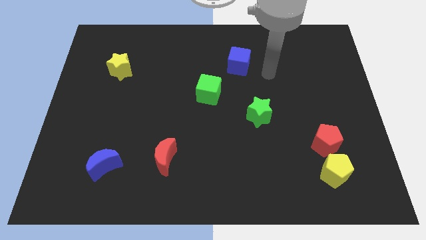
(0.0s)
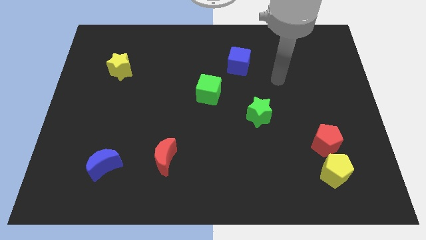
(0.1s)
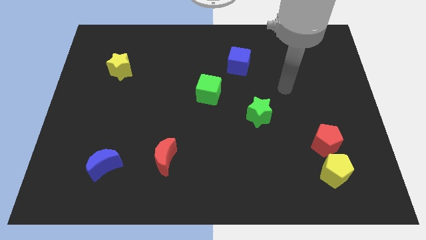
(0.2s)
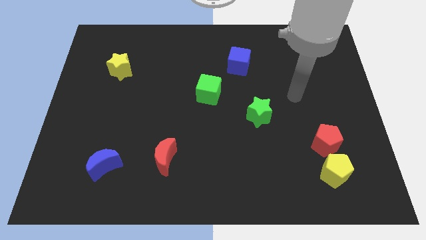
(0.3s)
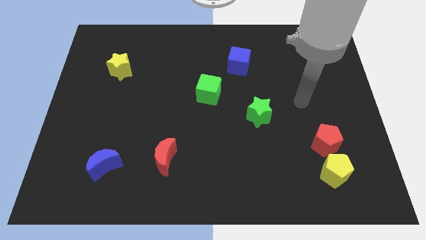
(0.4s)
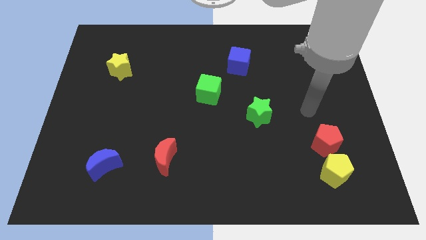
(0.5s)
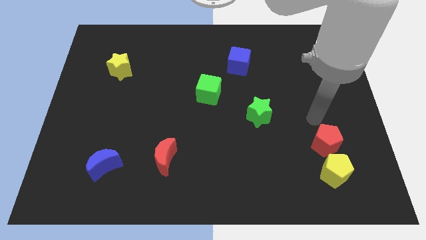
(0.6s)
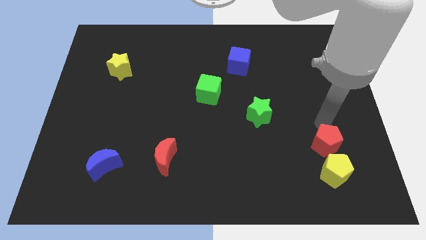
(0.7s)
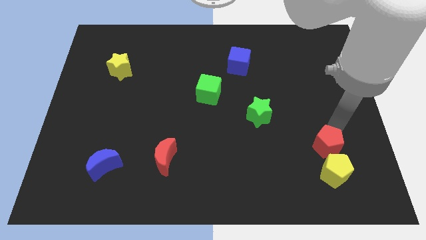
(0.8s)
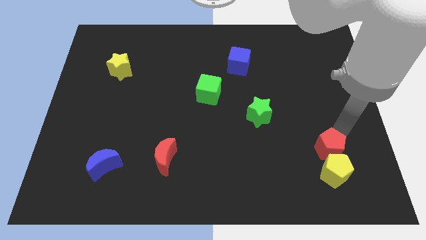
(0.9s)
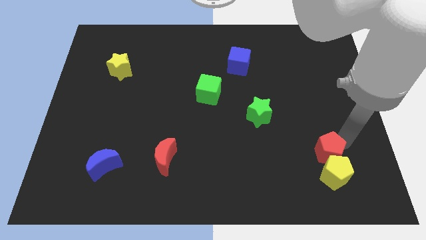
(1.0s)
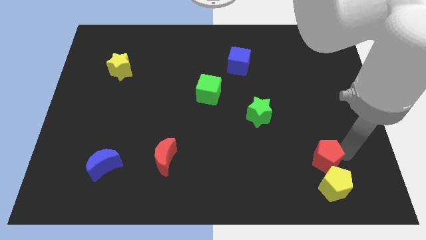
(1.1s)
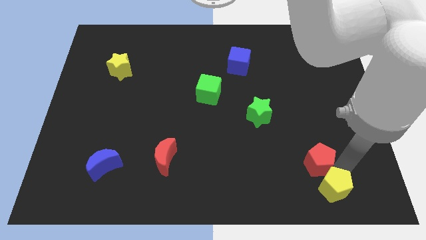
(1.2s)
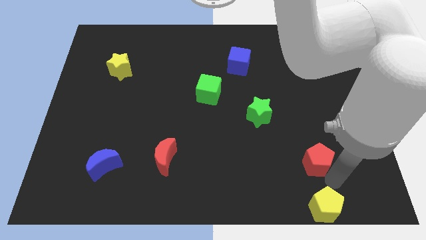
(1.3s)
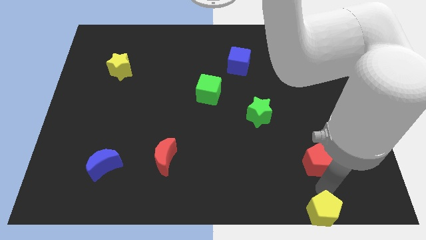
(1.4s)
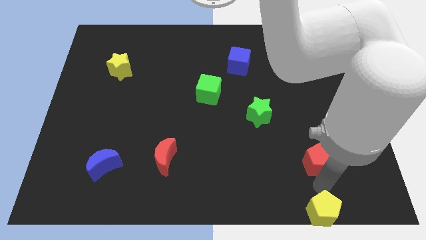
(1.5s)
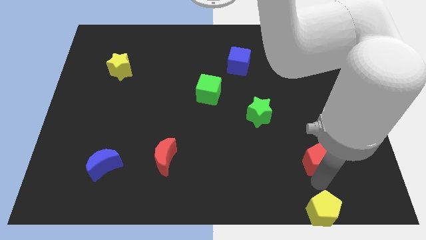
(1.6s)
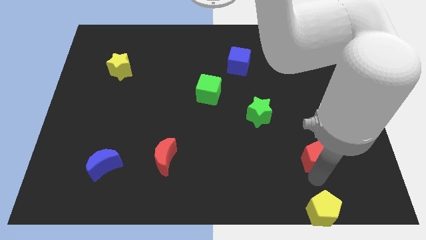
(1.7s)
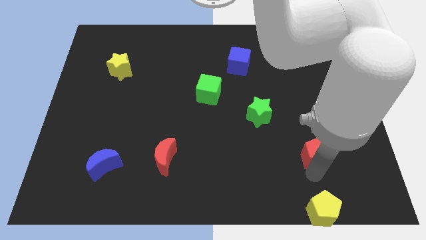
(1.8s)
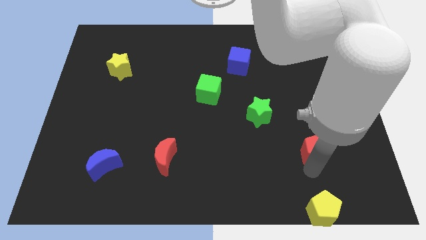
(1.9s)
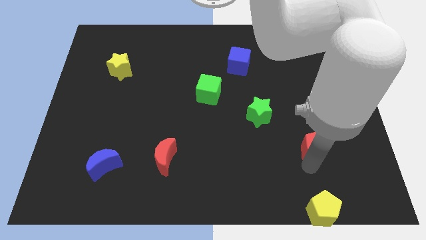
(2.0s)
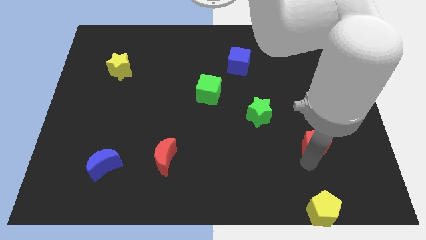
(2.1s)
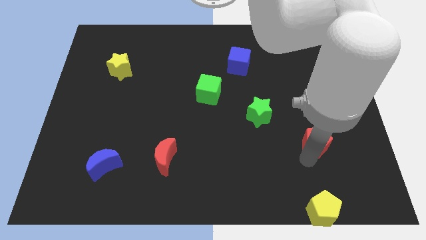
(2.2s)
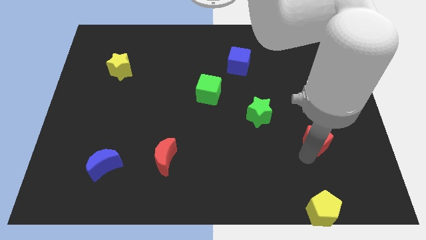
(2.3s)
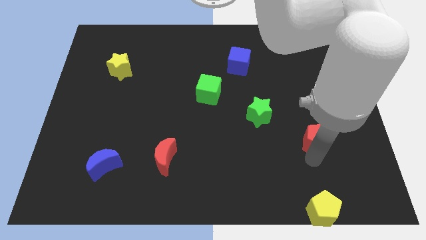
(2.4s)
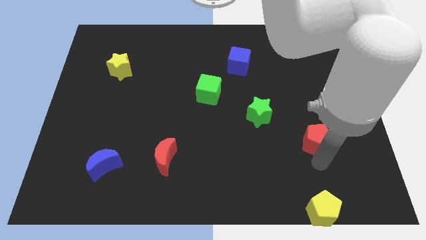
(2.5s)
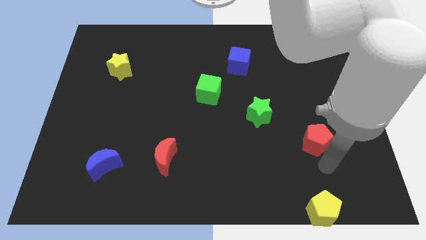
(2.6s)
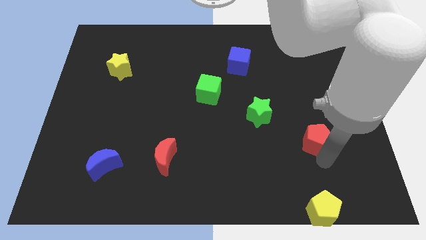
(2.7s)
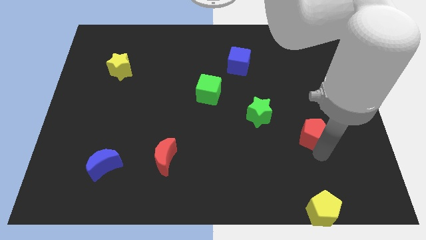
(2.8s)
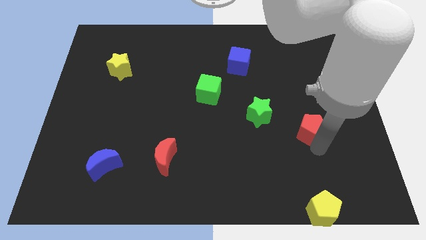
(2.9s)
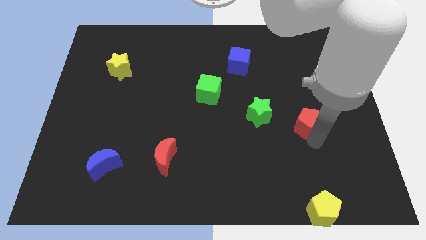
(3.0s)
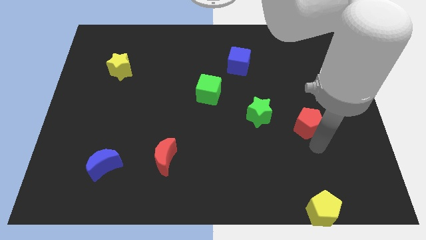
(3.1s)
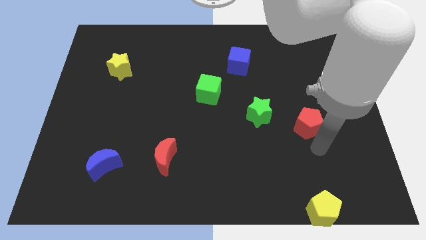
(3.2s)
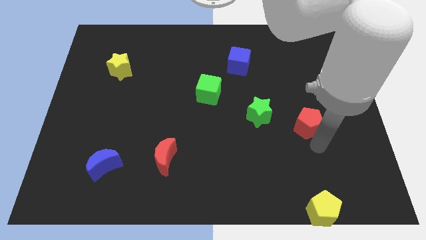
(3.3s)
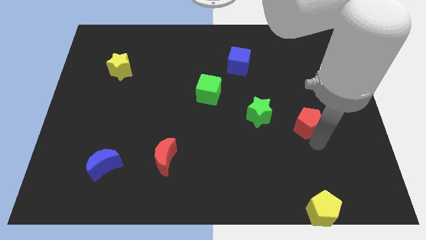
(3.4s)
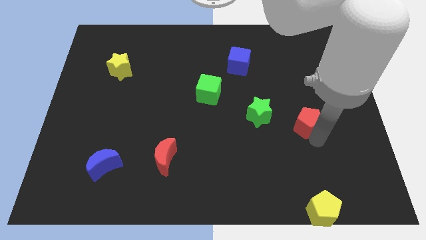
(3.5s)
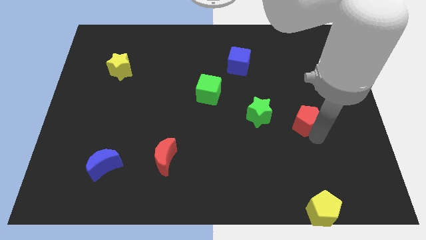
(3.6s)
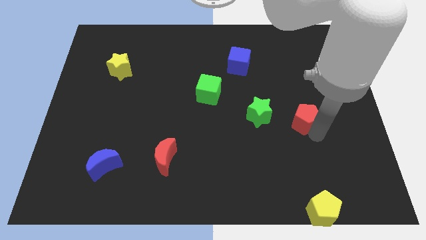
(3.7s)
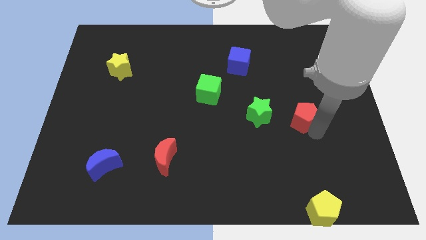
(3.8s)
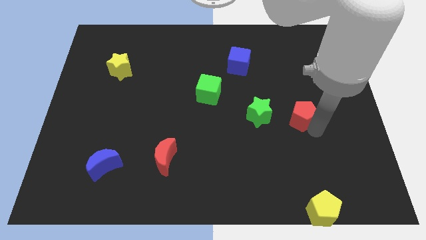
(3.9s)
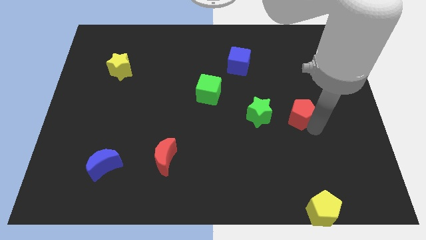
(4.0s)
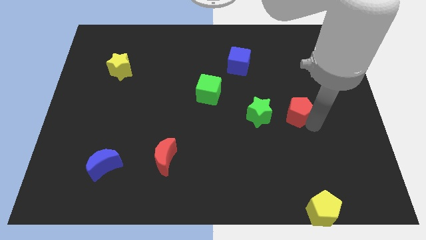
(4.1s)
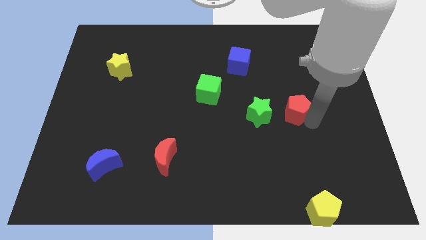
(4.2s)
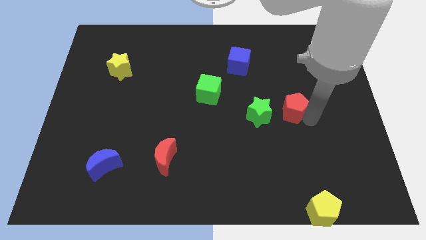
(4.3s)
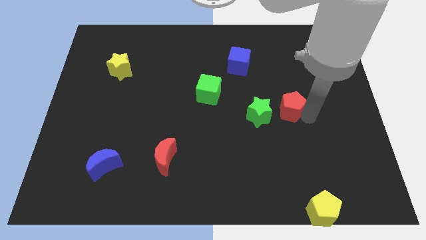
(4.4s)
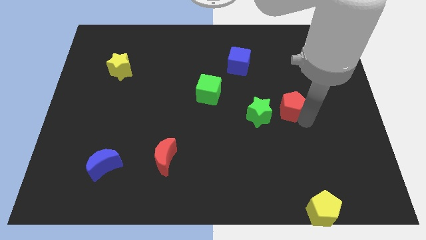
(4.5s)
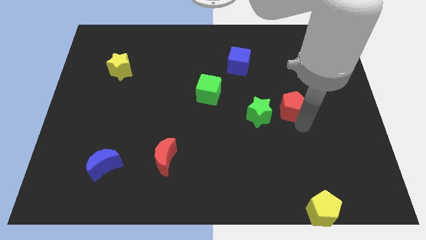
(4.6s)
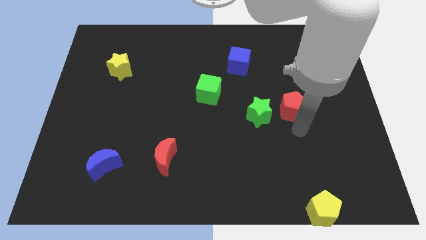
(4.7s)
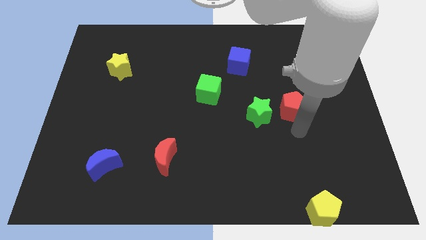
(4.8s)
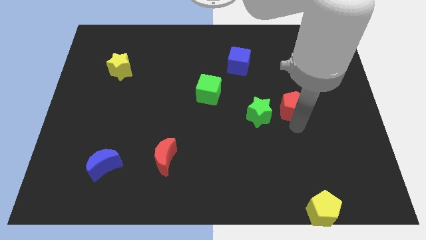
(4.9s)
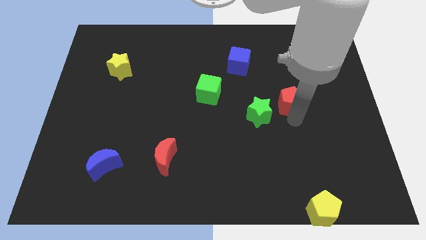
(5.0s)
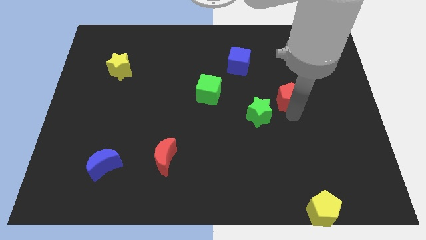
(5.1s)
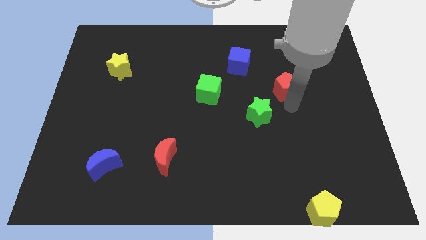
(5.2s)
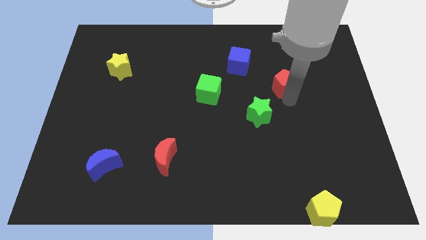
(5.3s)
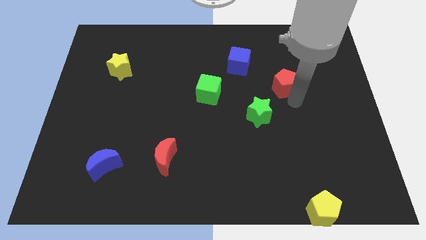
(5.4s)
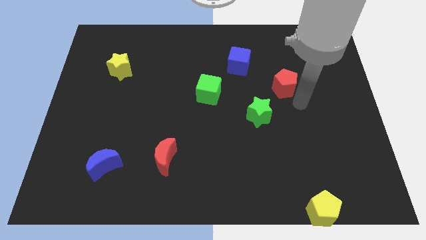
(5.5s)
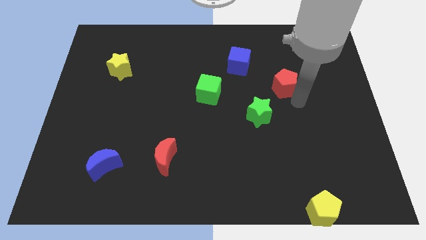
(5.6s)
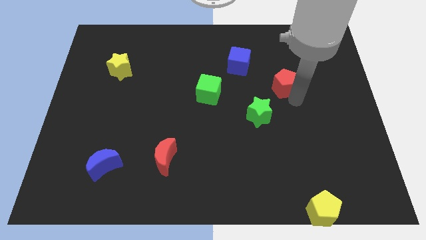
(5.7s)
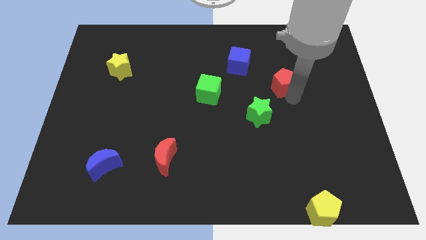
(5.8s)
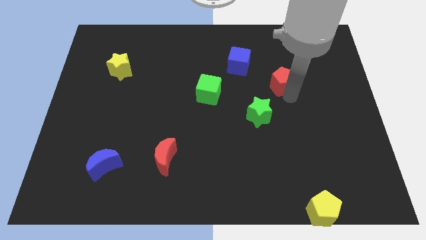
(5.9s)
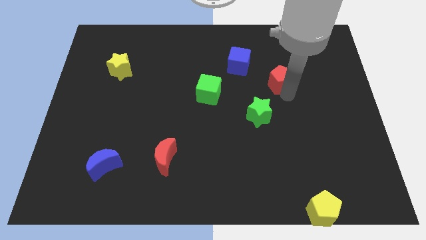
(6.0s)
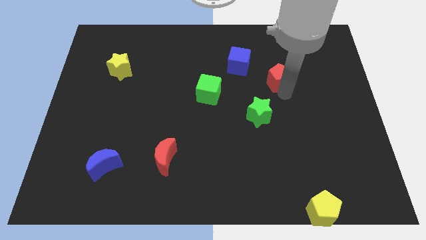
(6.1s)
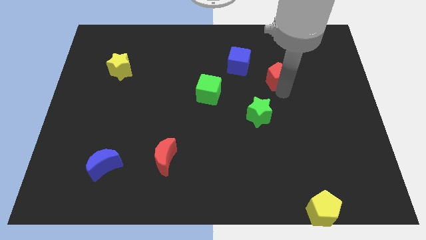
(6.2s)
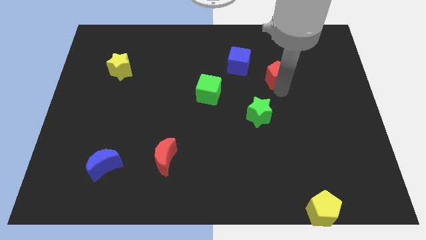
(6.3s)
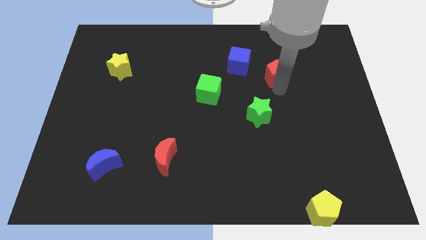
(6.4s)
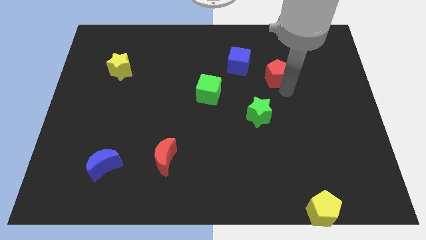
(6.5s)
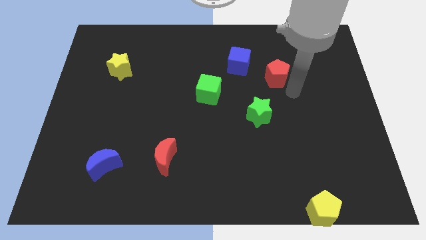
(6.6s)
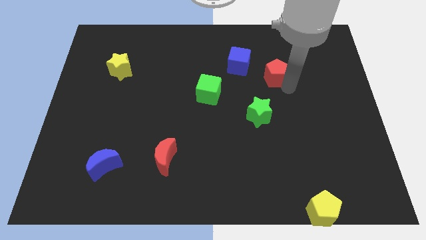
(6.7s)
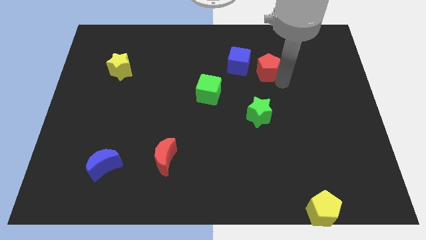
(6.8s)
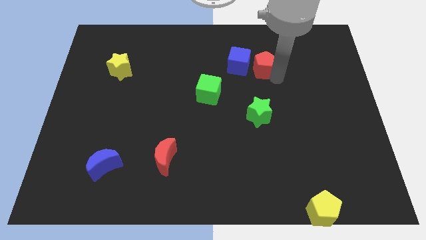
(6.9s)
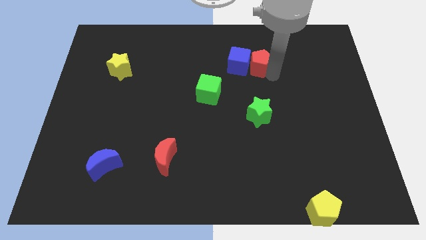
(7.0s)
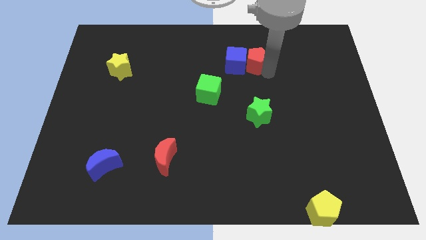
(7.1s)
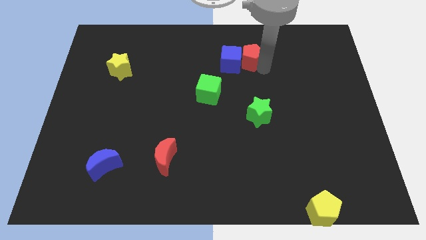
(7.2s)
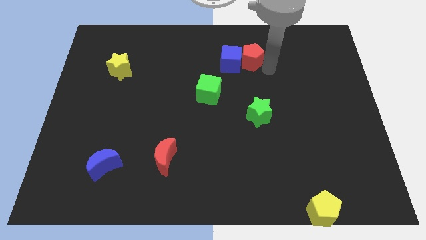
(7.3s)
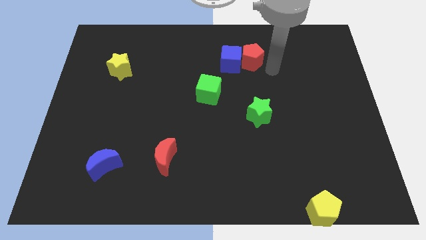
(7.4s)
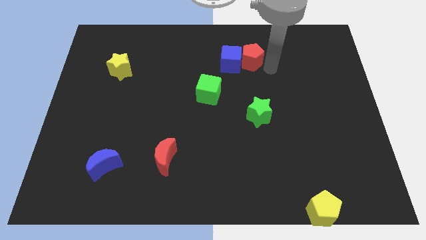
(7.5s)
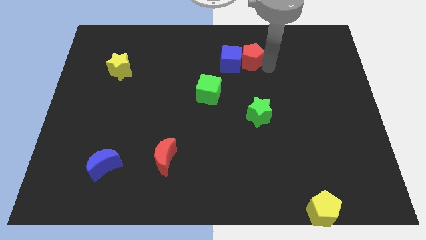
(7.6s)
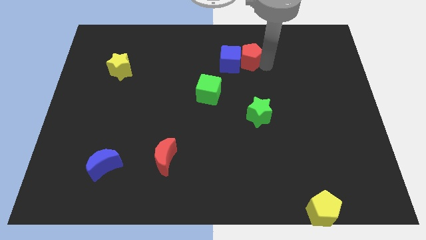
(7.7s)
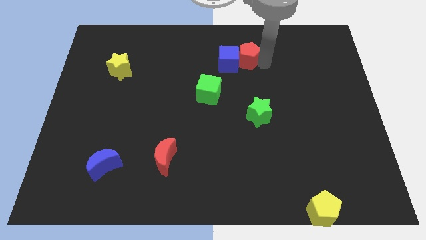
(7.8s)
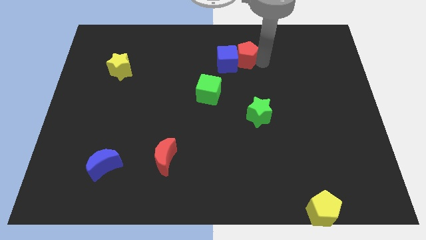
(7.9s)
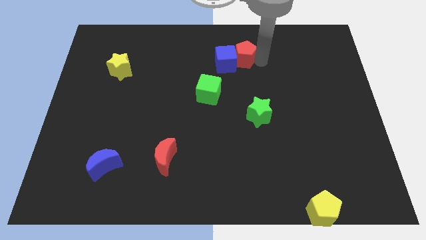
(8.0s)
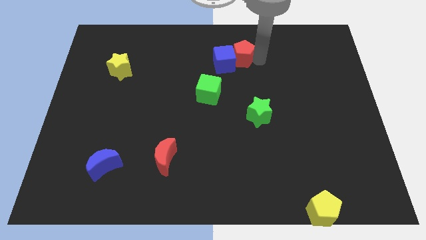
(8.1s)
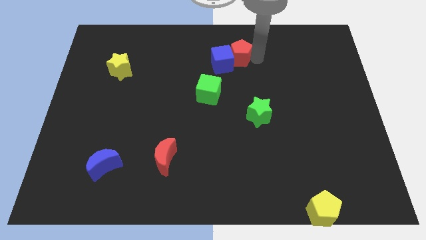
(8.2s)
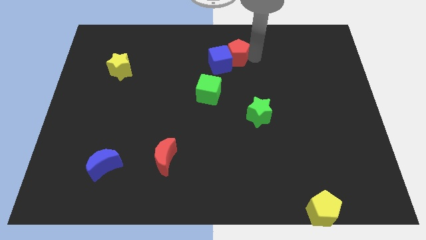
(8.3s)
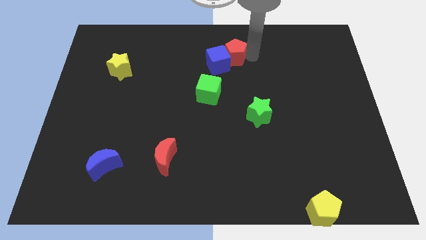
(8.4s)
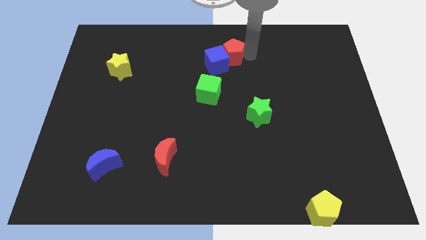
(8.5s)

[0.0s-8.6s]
slide the red pentagon to the towards your base
